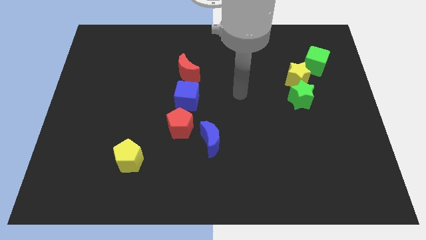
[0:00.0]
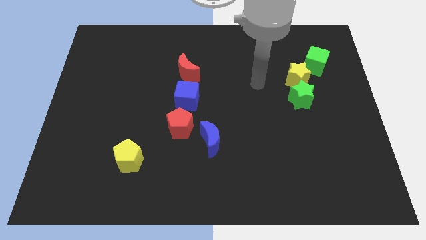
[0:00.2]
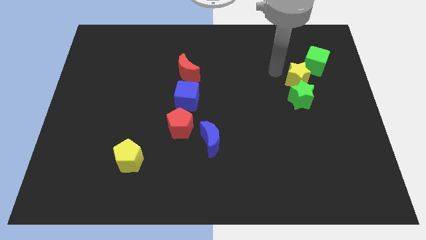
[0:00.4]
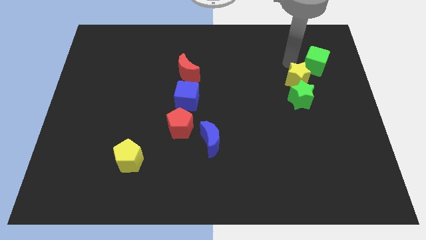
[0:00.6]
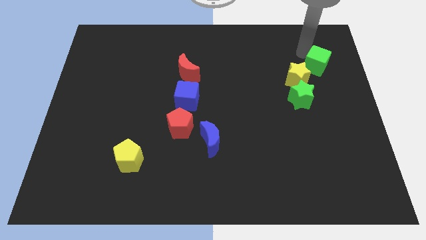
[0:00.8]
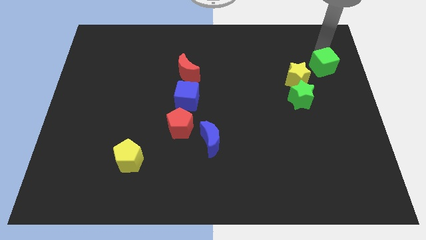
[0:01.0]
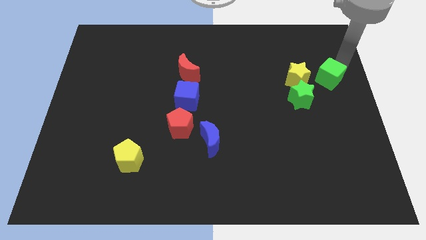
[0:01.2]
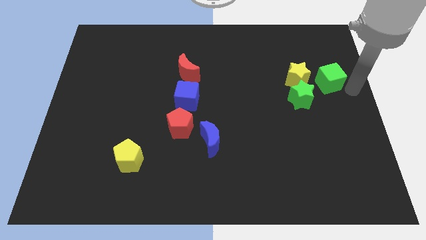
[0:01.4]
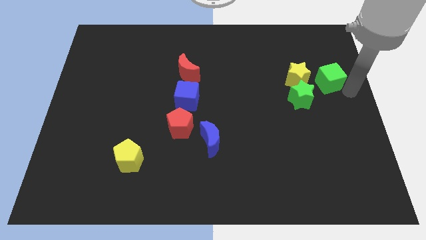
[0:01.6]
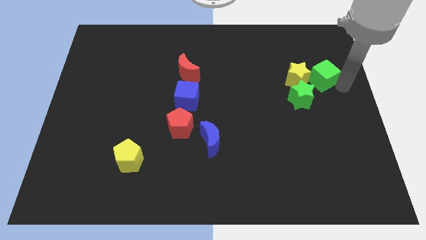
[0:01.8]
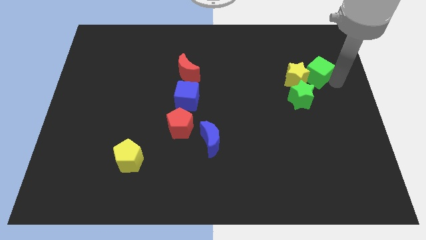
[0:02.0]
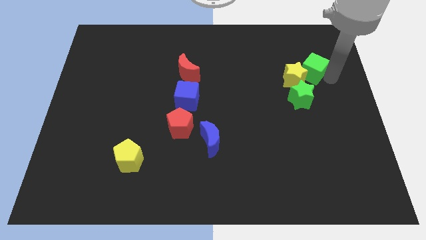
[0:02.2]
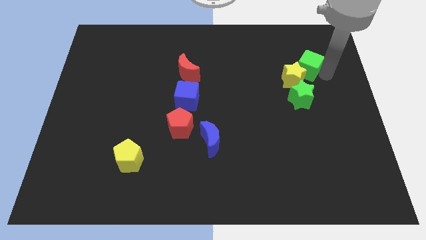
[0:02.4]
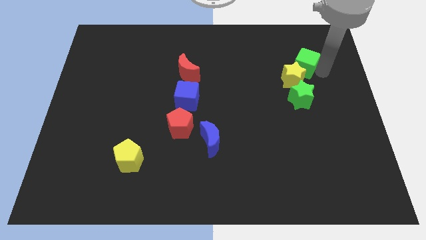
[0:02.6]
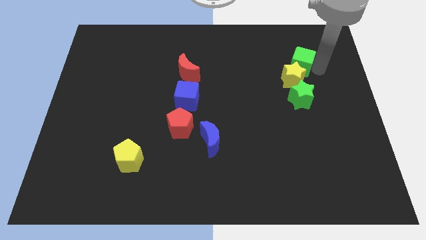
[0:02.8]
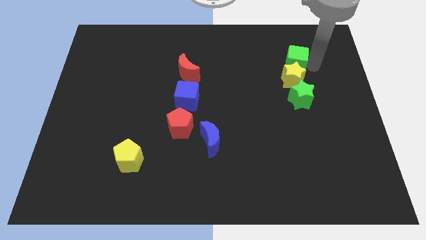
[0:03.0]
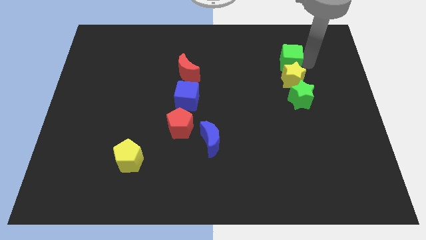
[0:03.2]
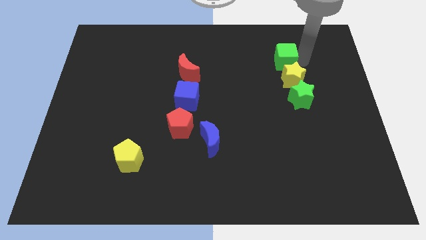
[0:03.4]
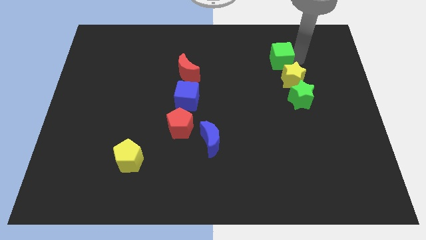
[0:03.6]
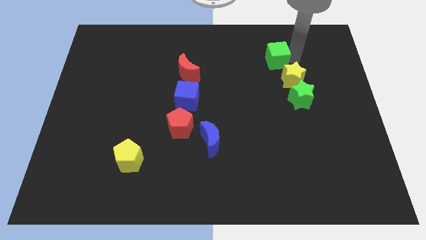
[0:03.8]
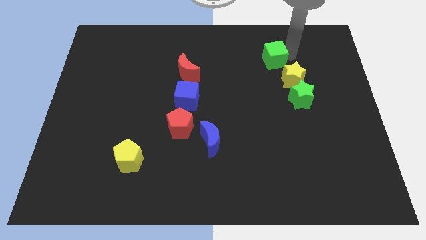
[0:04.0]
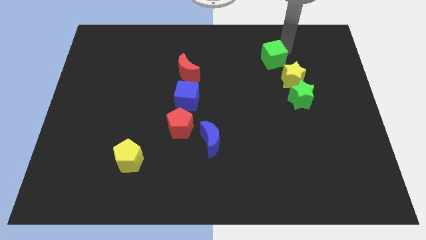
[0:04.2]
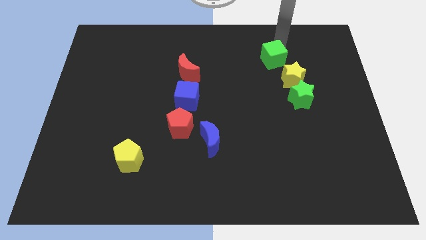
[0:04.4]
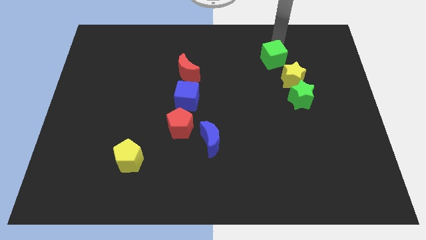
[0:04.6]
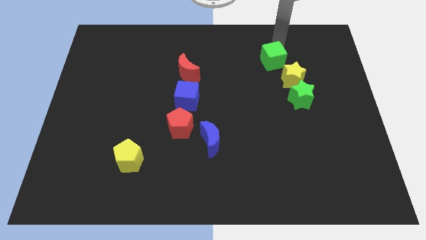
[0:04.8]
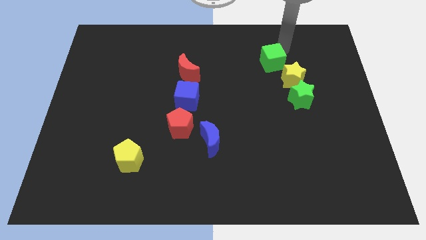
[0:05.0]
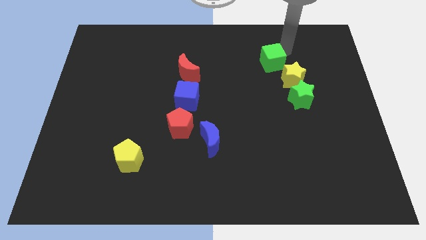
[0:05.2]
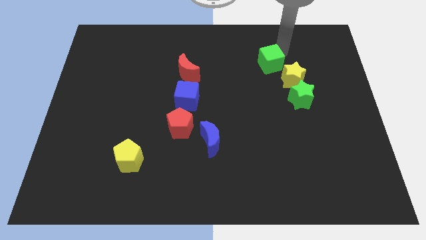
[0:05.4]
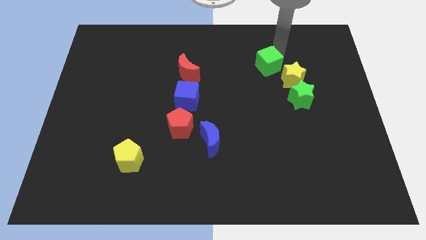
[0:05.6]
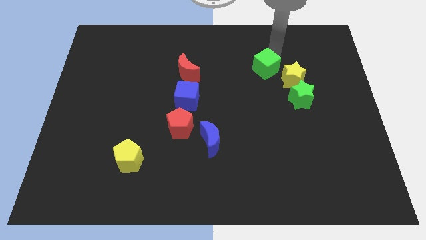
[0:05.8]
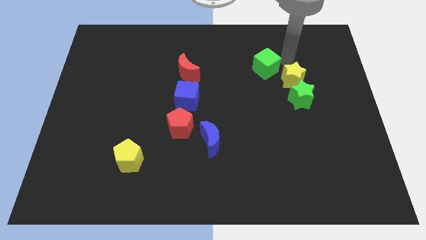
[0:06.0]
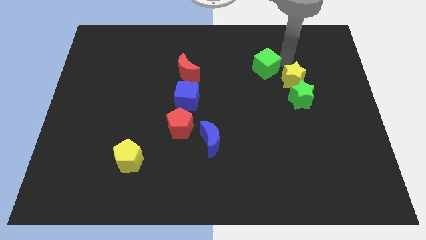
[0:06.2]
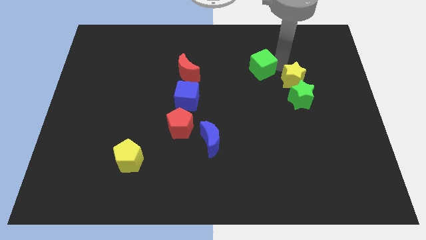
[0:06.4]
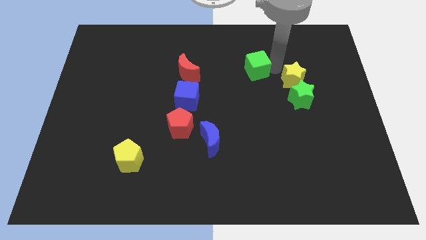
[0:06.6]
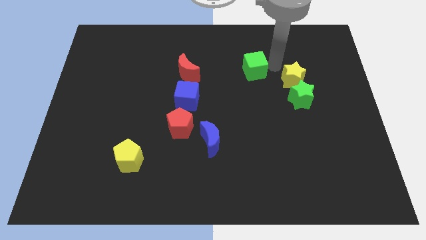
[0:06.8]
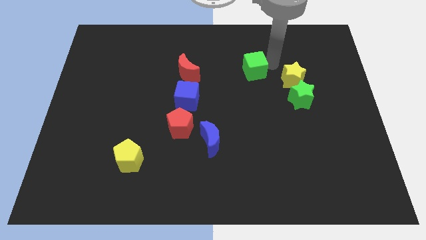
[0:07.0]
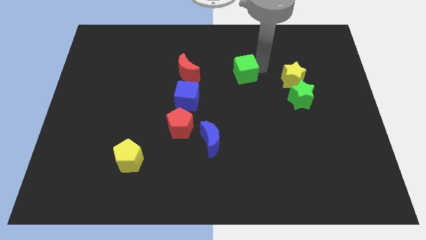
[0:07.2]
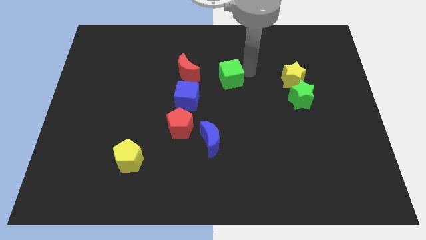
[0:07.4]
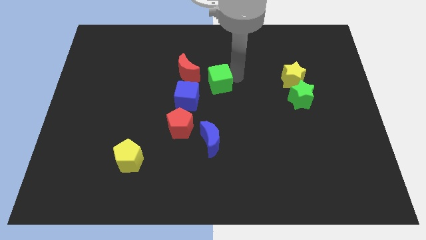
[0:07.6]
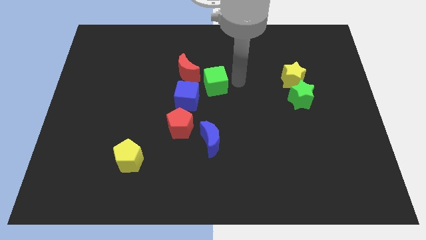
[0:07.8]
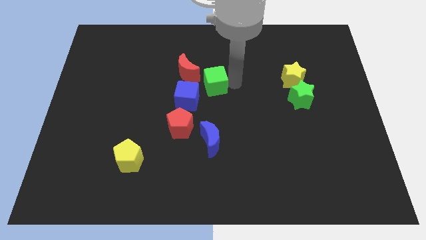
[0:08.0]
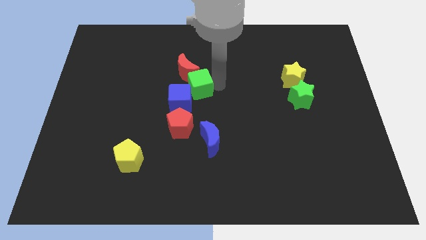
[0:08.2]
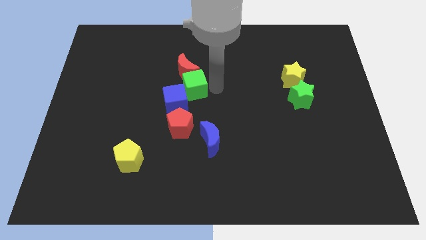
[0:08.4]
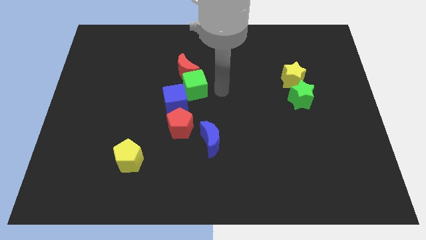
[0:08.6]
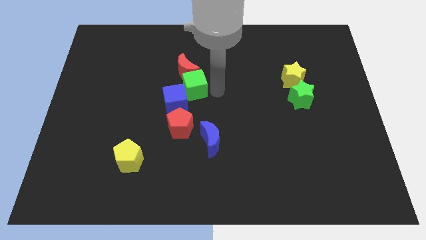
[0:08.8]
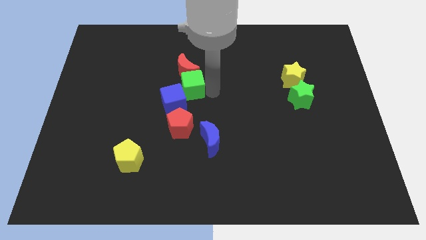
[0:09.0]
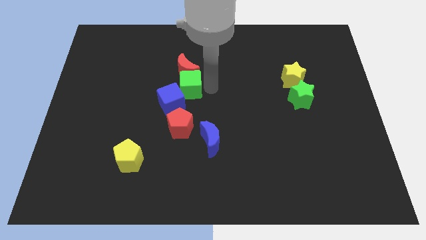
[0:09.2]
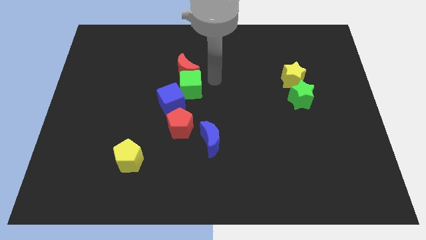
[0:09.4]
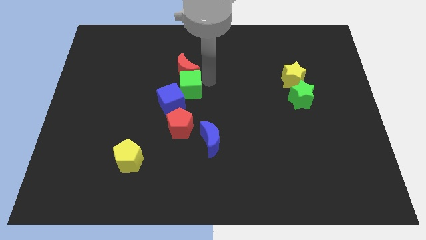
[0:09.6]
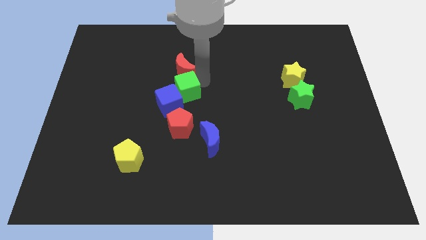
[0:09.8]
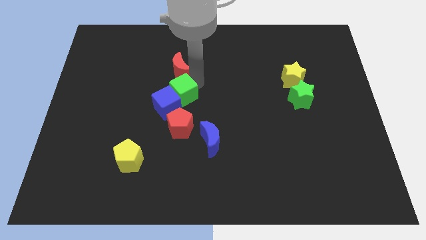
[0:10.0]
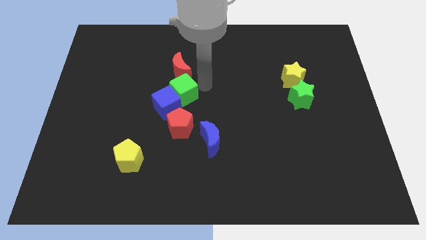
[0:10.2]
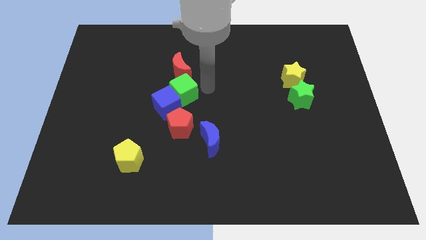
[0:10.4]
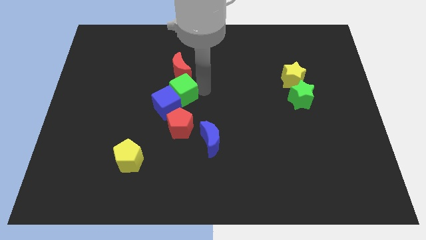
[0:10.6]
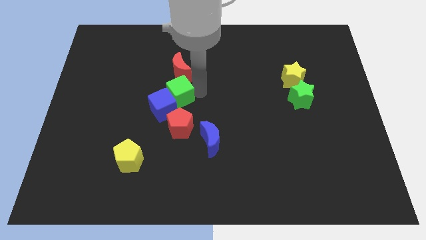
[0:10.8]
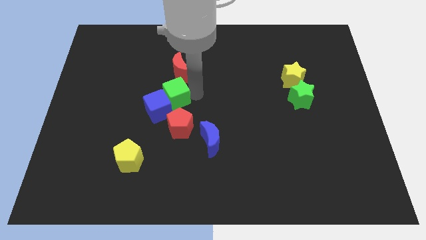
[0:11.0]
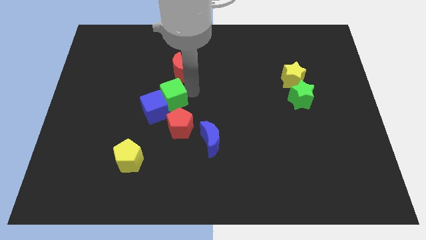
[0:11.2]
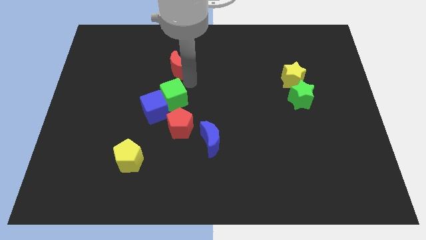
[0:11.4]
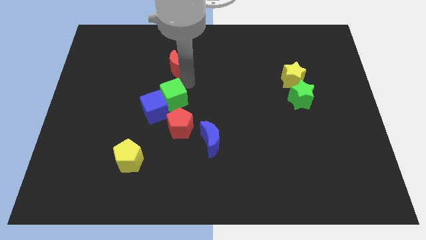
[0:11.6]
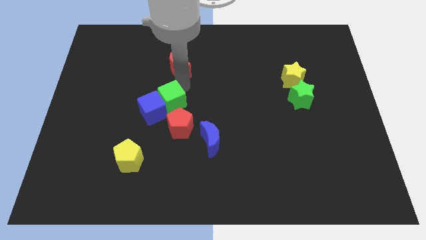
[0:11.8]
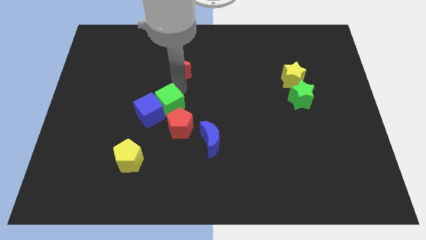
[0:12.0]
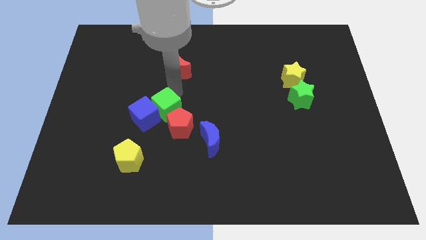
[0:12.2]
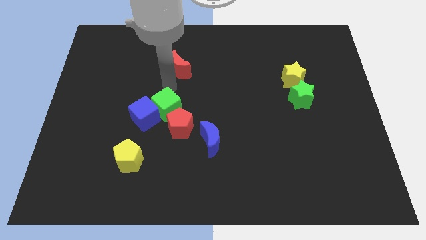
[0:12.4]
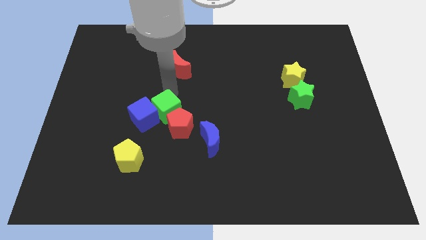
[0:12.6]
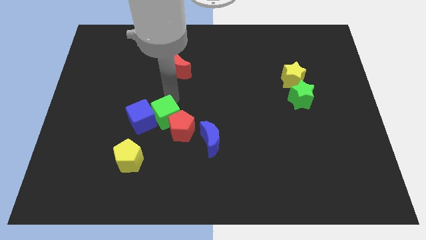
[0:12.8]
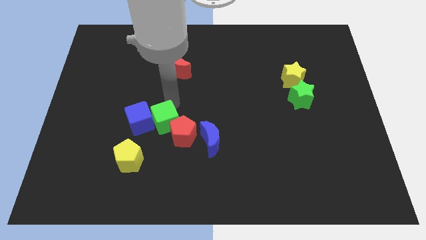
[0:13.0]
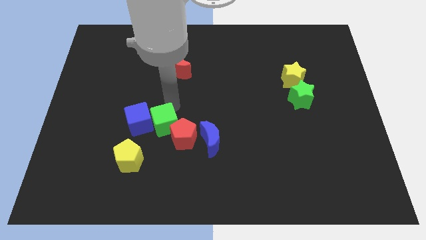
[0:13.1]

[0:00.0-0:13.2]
push the green cube to the left of the blue moon
